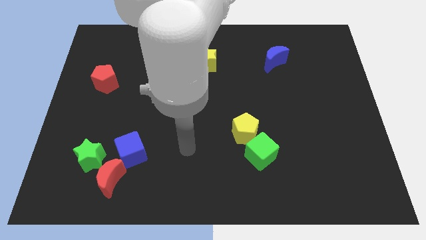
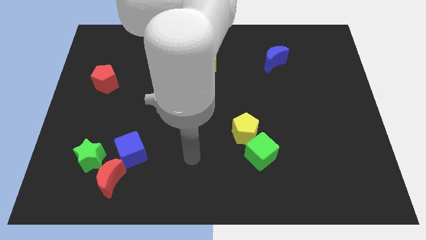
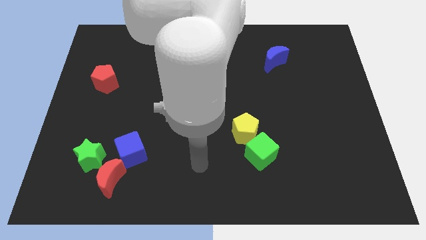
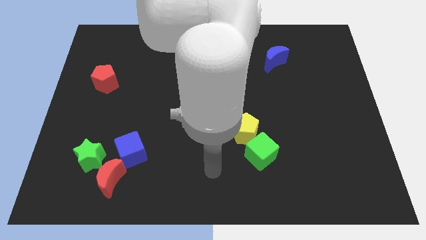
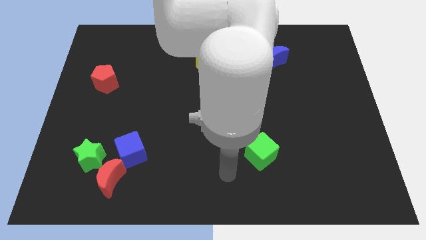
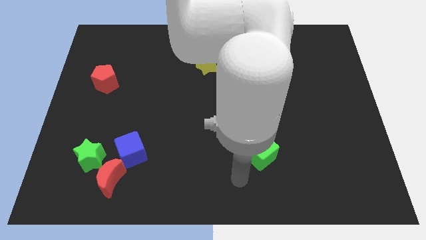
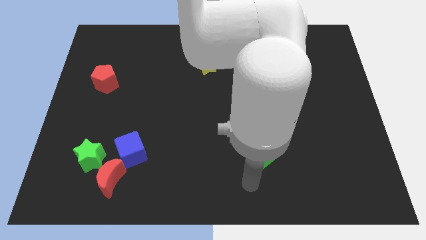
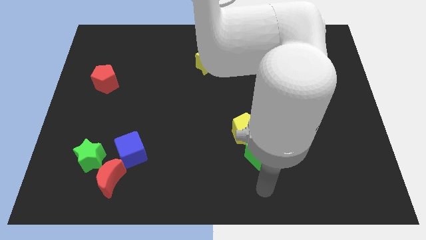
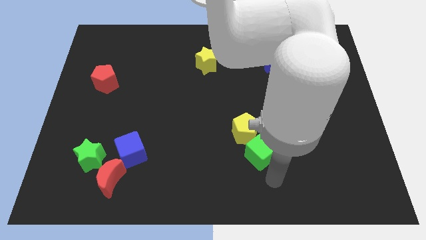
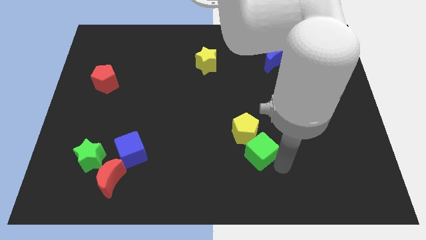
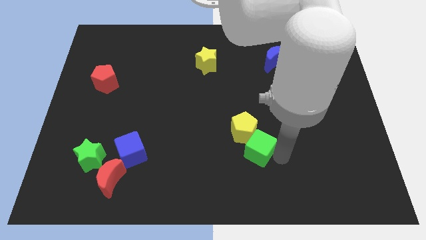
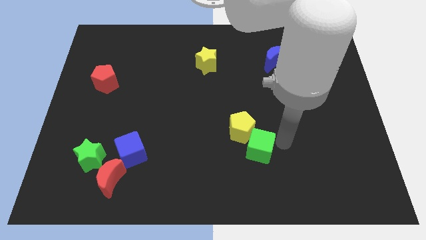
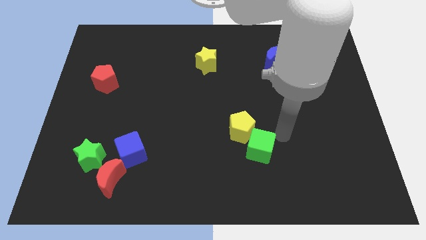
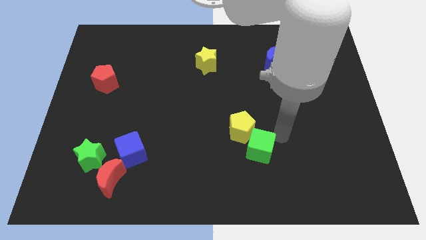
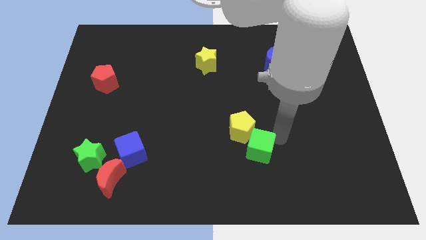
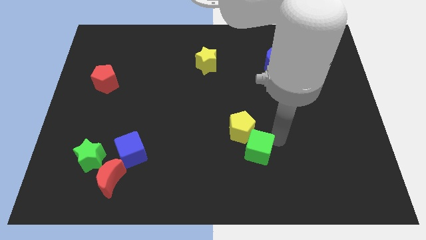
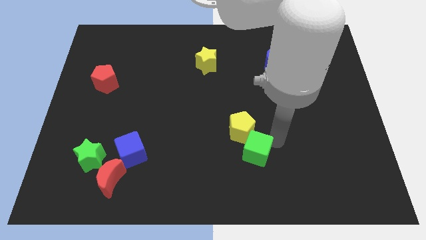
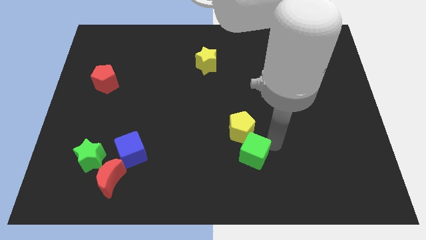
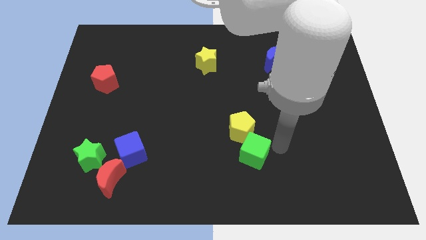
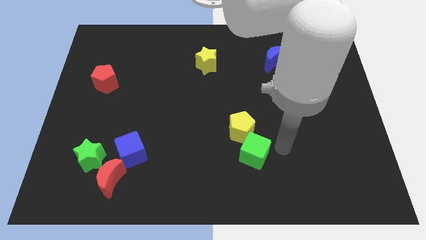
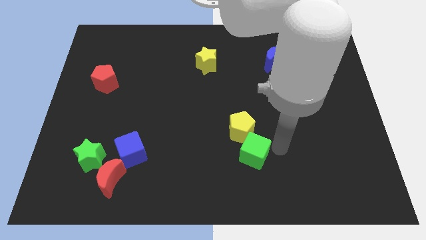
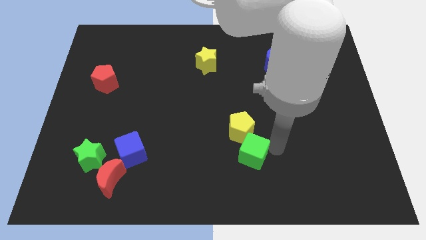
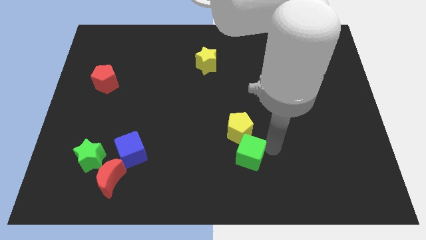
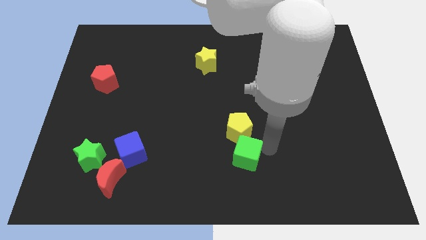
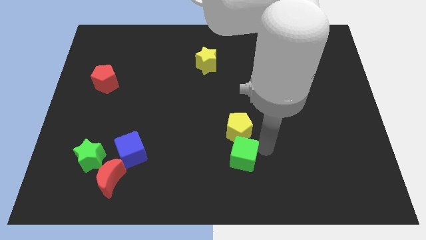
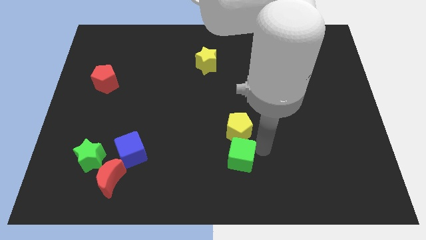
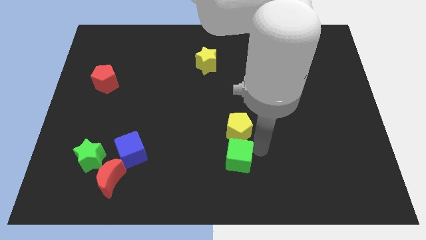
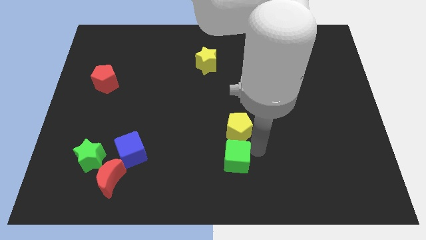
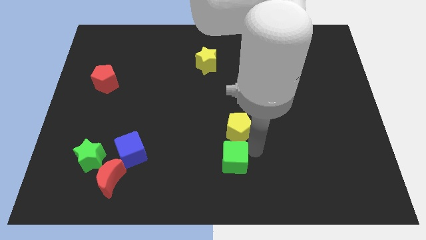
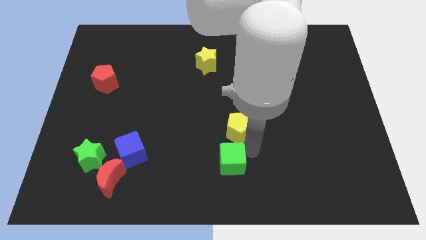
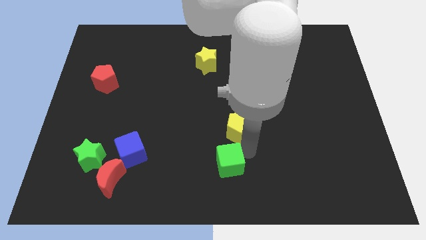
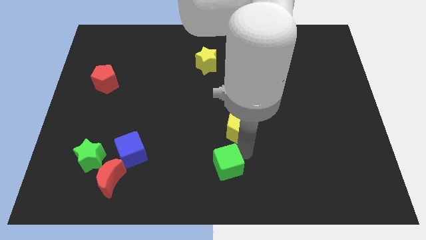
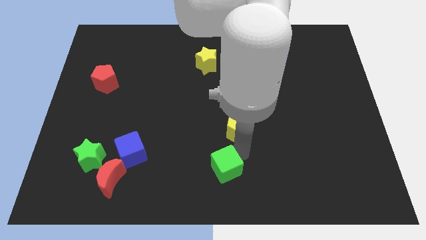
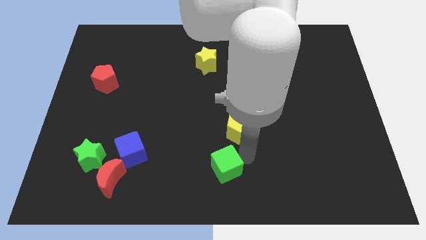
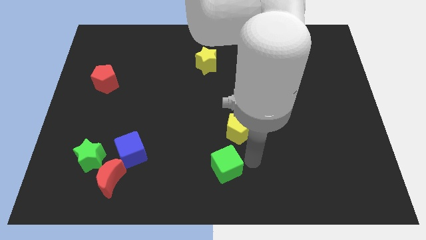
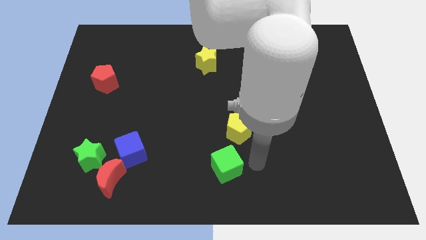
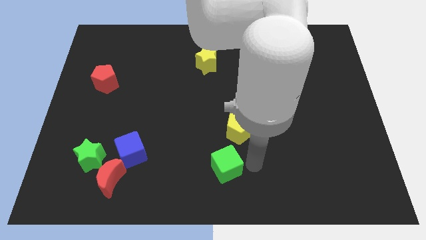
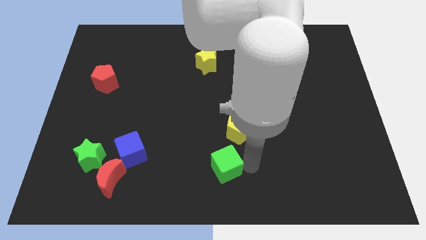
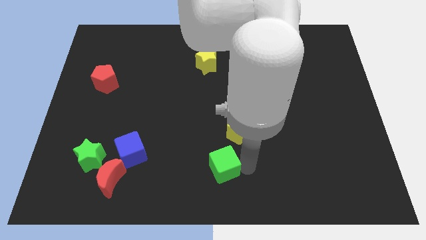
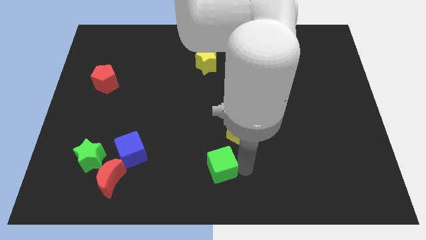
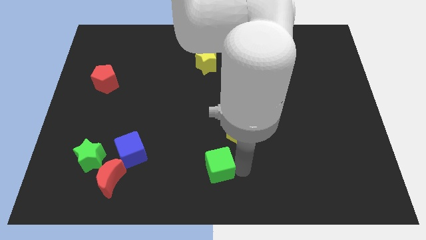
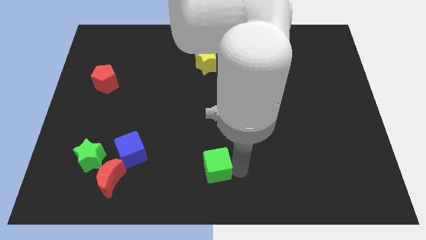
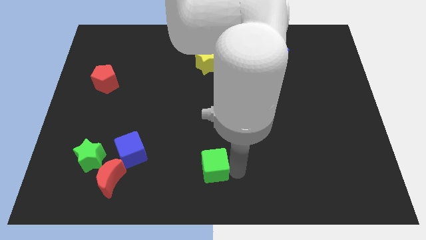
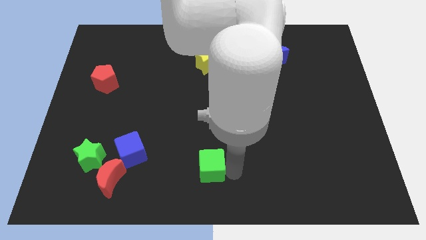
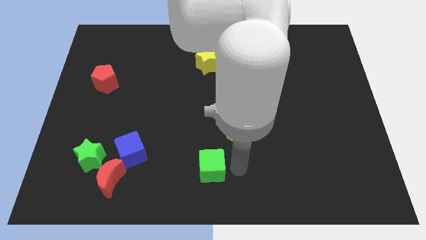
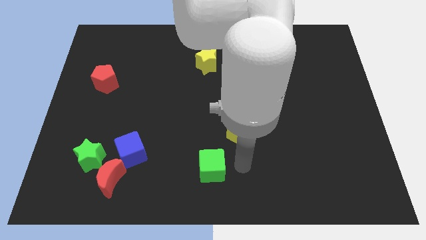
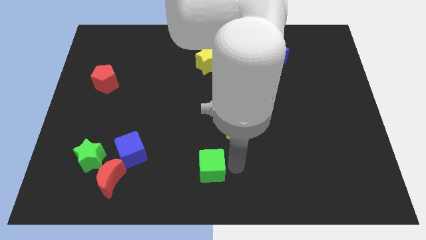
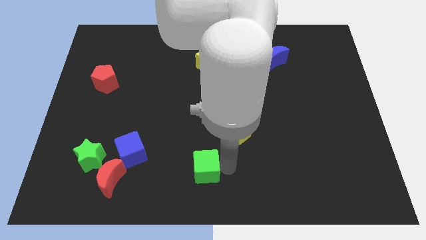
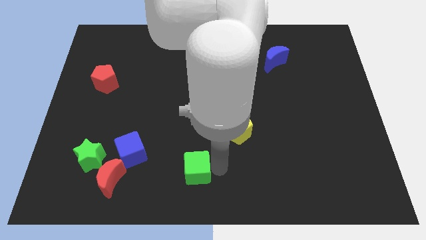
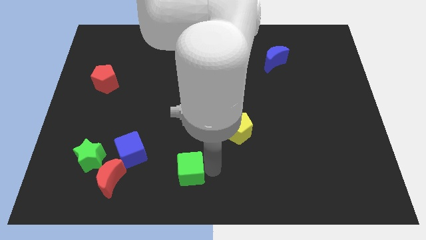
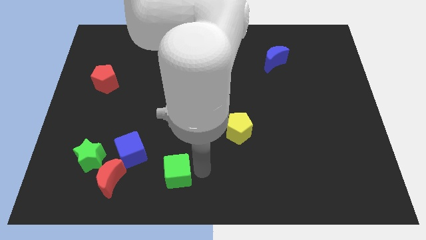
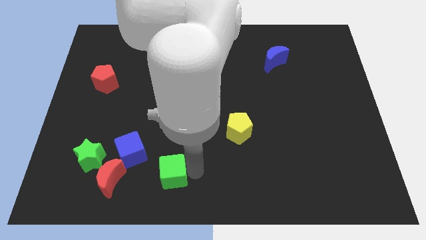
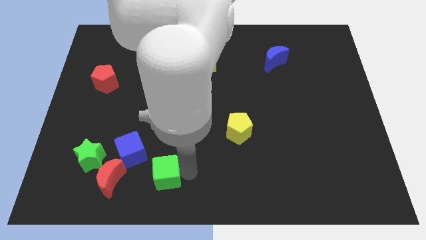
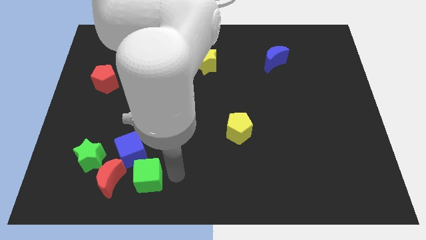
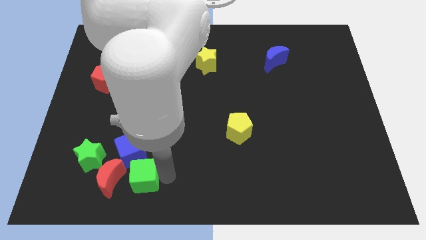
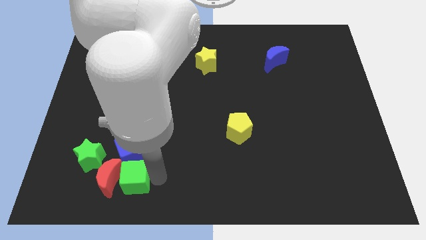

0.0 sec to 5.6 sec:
move the green cube to the red moon

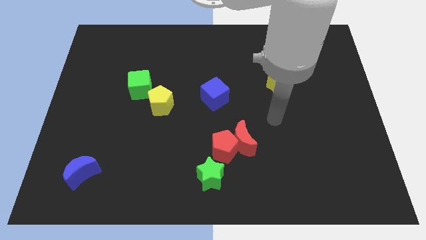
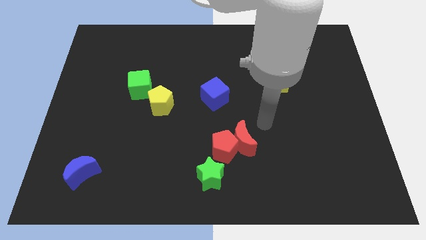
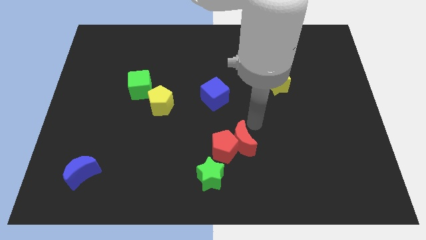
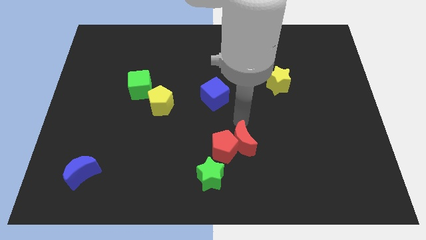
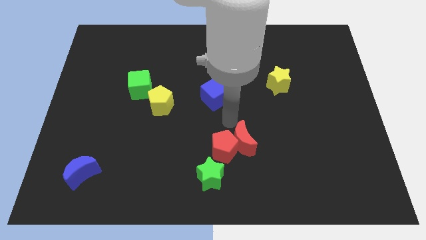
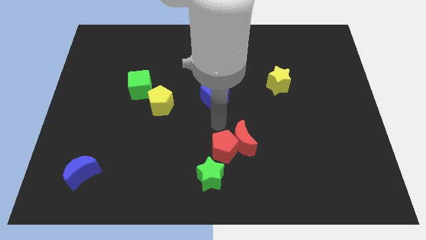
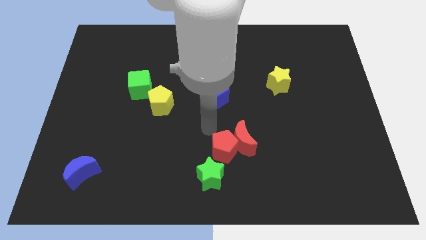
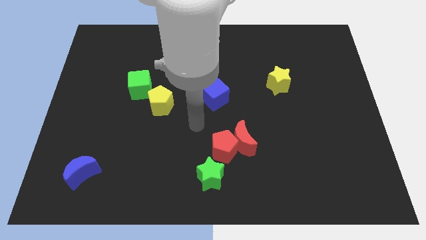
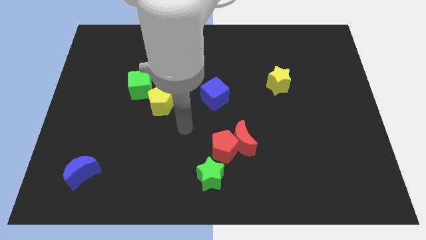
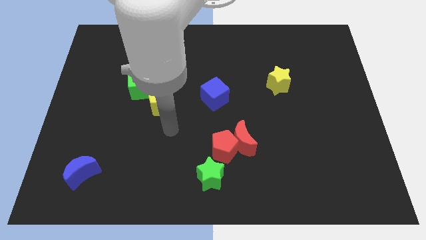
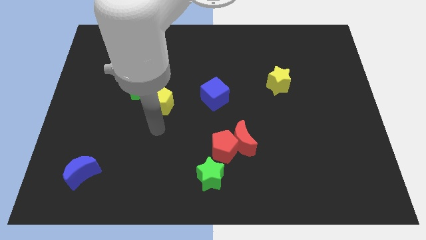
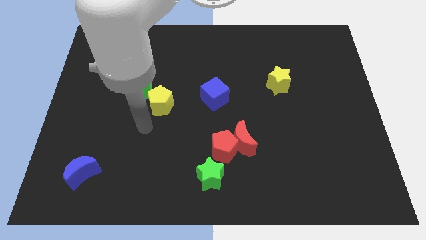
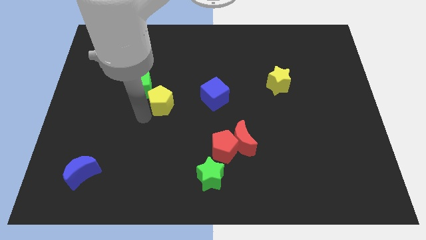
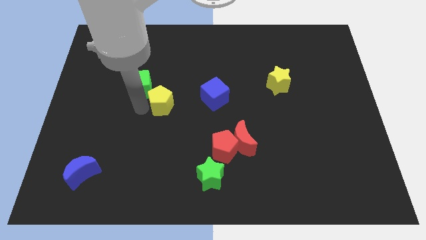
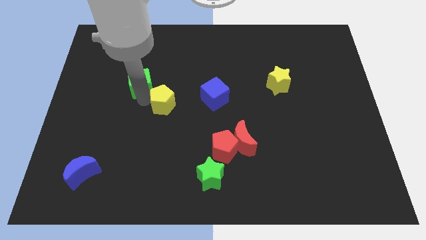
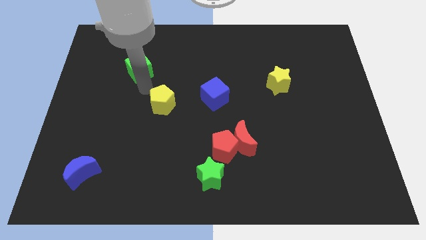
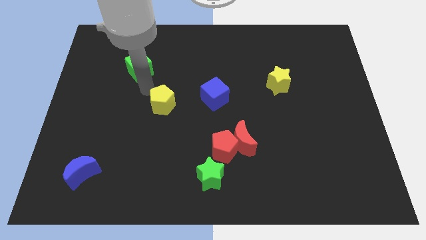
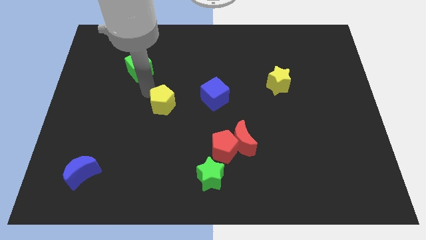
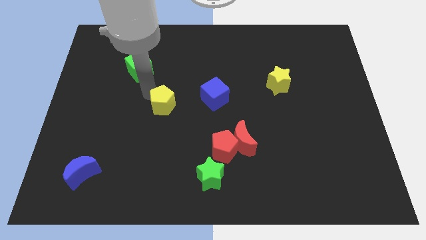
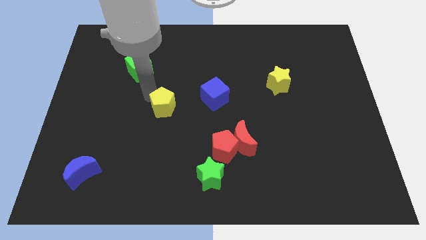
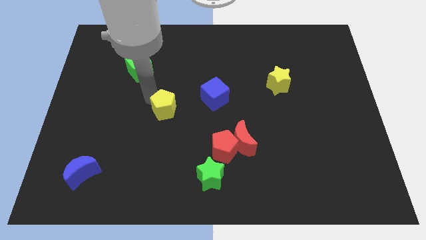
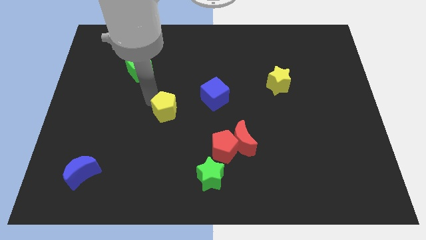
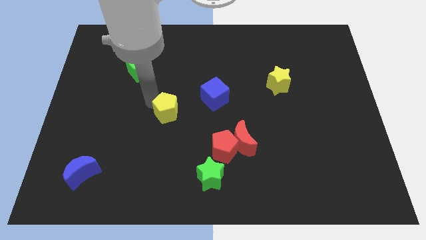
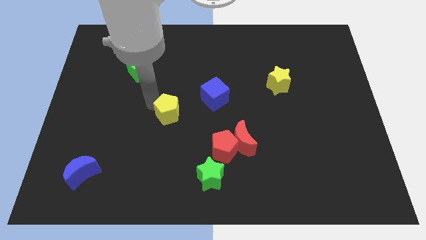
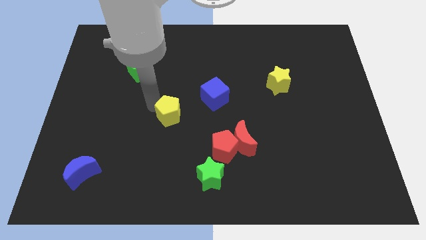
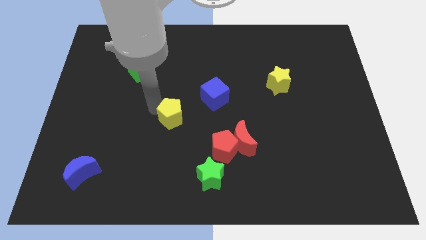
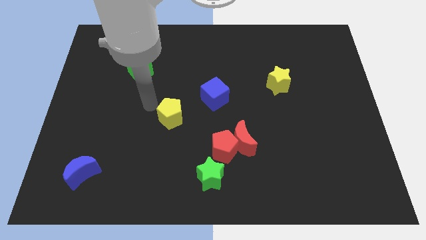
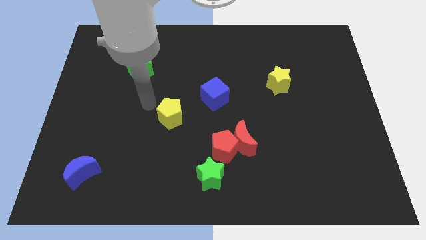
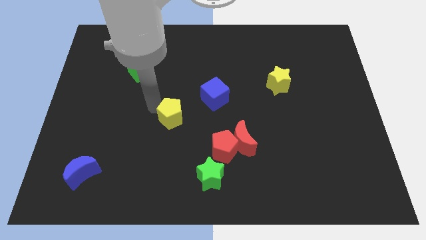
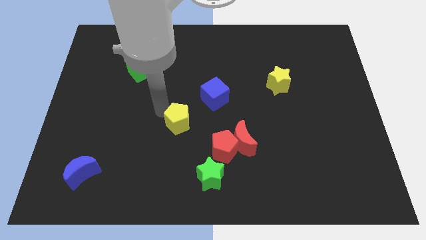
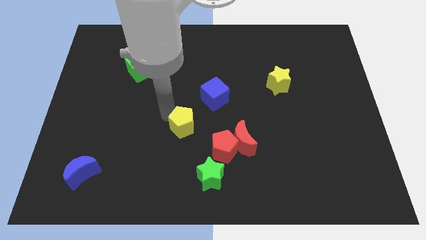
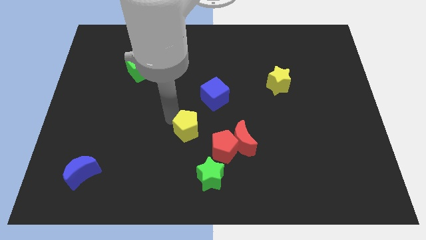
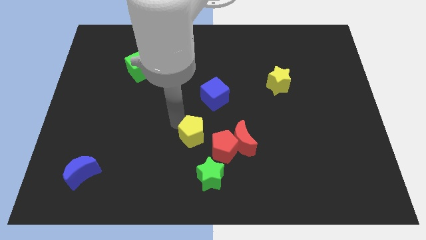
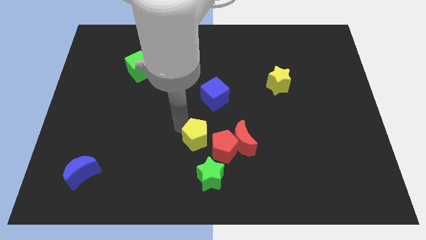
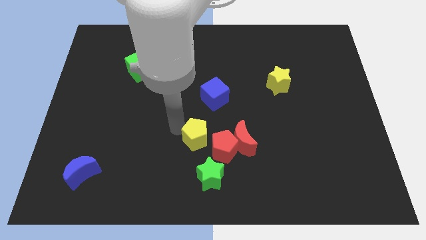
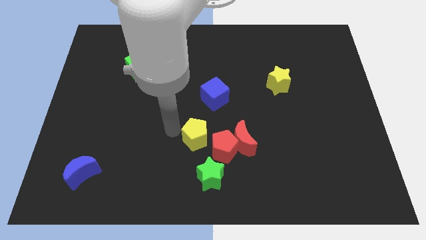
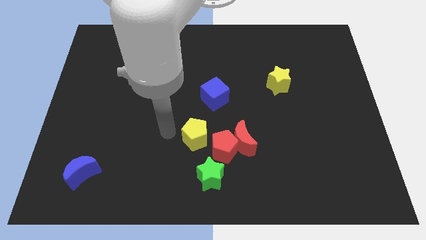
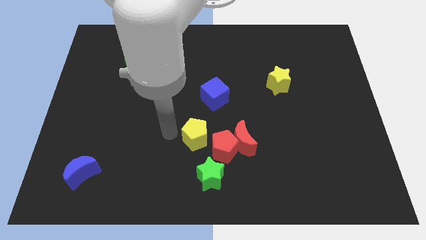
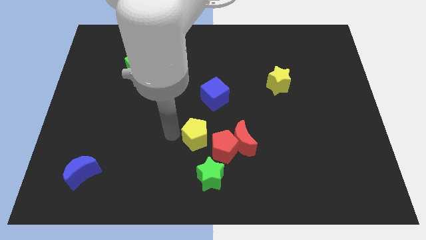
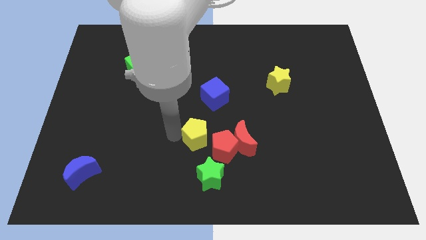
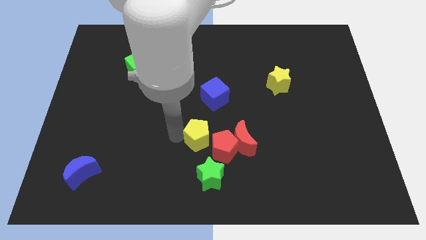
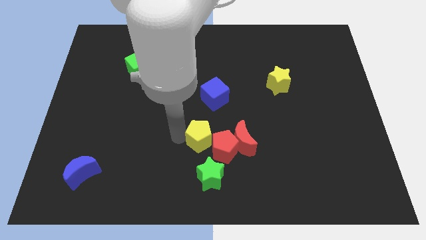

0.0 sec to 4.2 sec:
push the yellow pentagon close to the red pentagon
